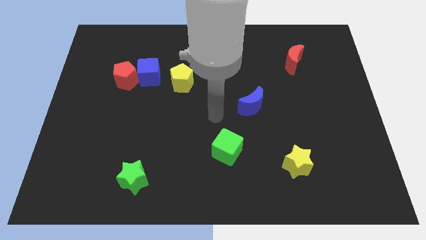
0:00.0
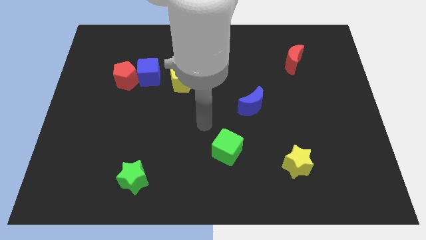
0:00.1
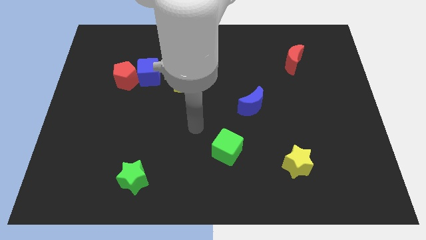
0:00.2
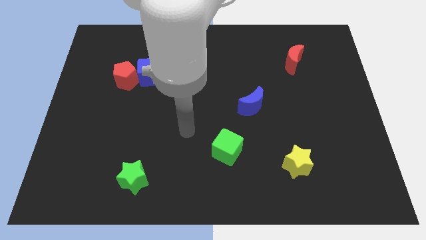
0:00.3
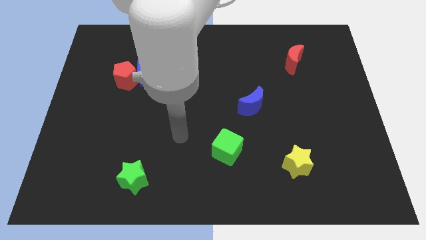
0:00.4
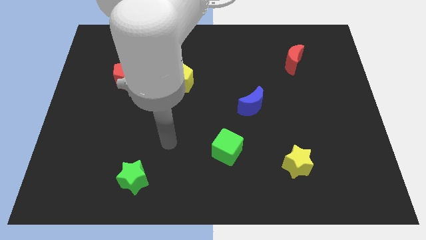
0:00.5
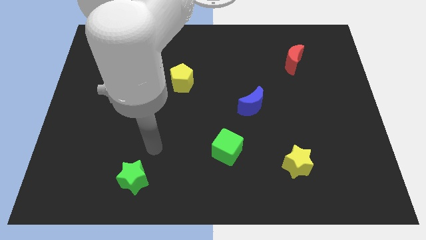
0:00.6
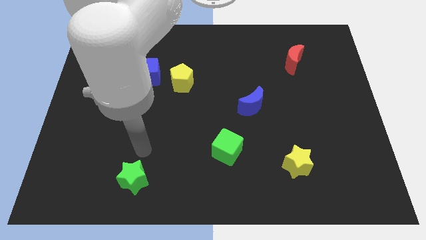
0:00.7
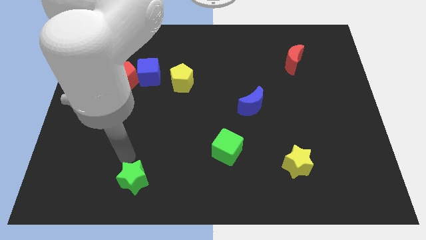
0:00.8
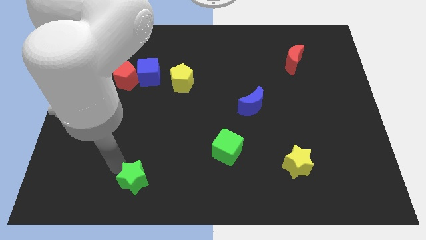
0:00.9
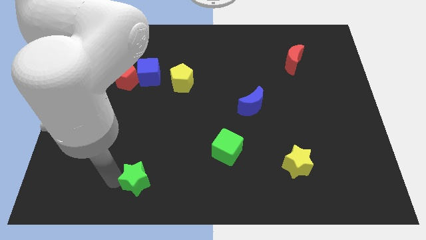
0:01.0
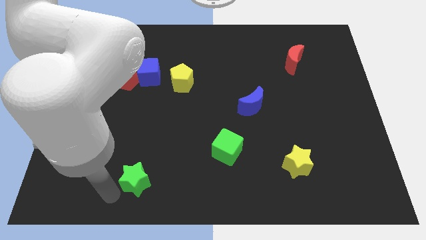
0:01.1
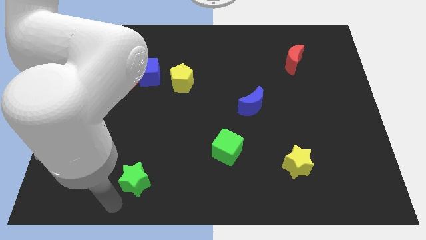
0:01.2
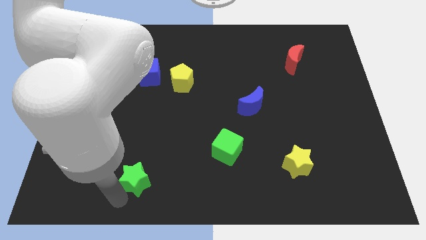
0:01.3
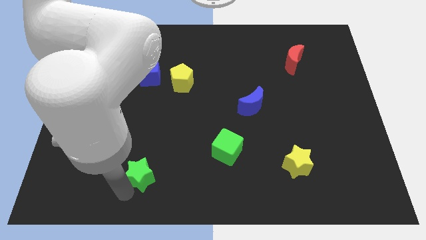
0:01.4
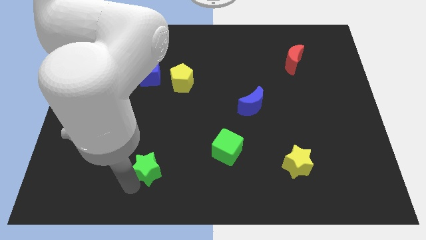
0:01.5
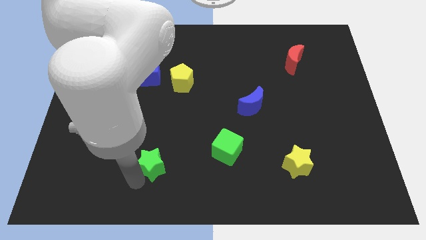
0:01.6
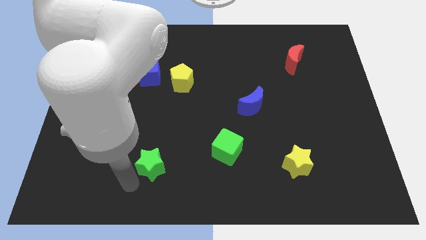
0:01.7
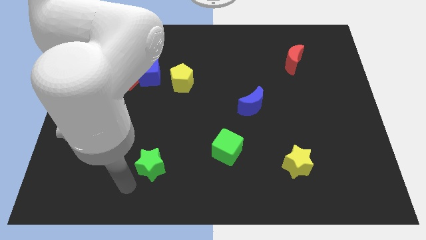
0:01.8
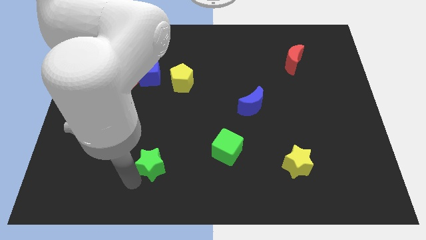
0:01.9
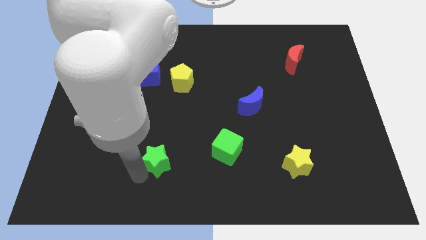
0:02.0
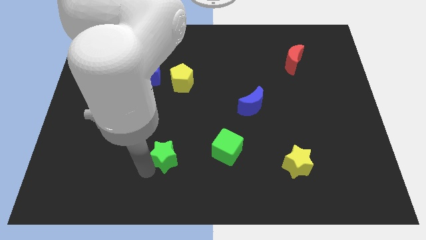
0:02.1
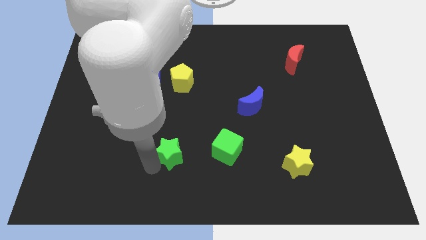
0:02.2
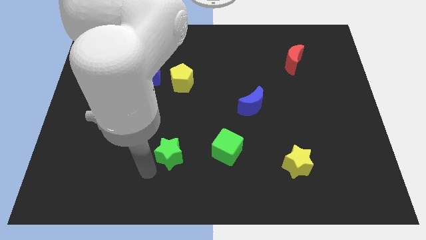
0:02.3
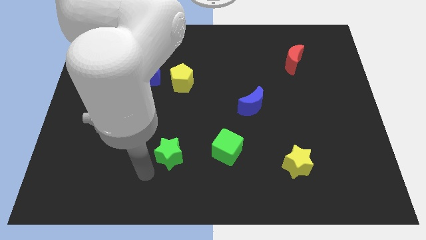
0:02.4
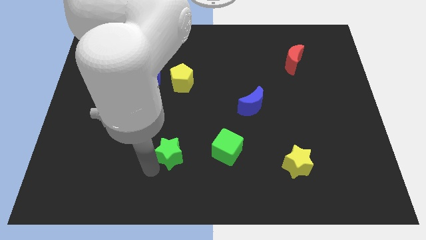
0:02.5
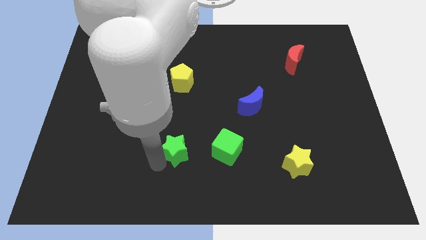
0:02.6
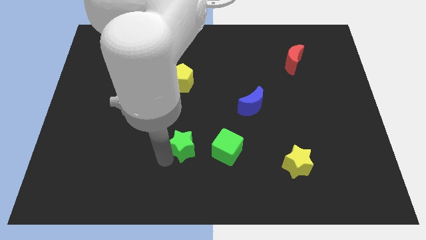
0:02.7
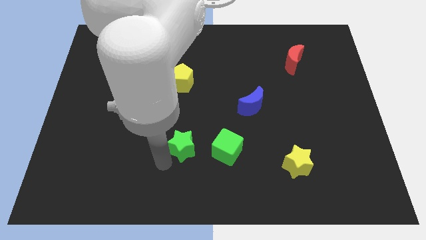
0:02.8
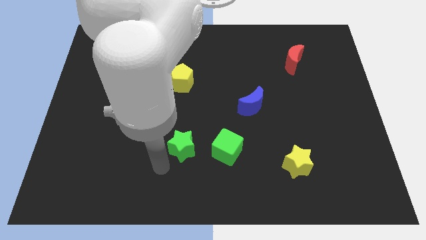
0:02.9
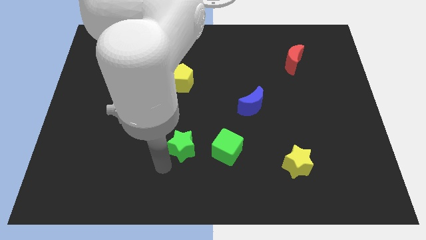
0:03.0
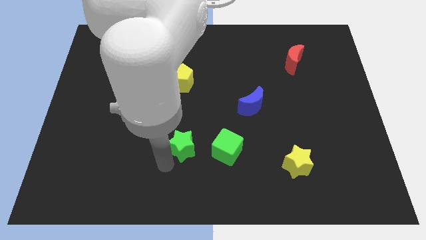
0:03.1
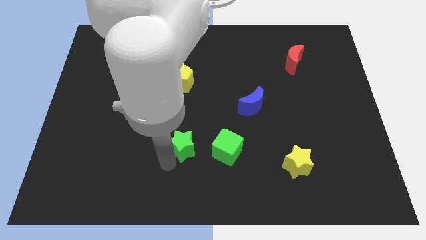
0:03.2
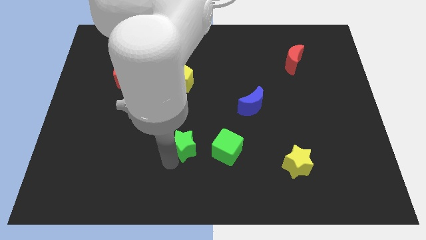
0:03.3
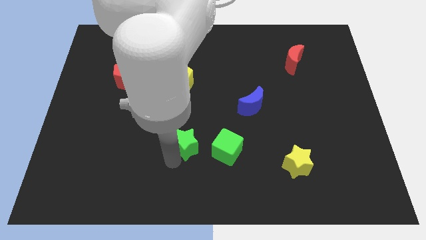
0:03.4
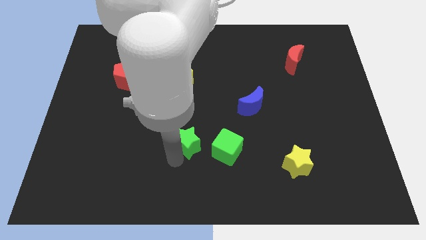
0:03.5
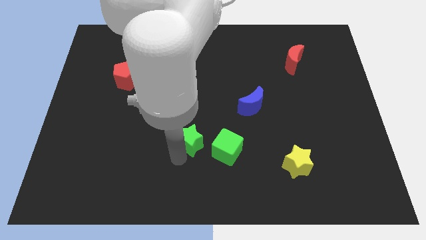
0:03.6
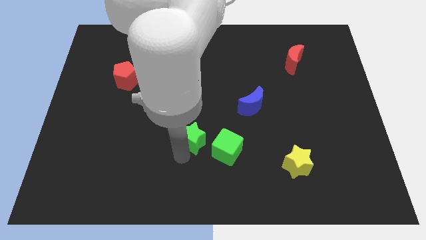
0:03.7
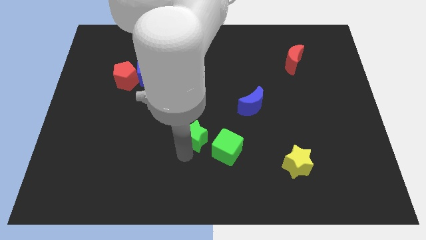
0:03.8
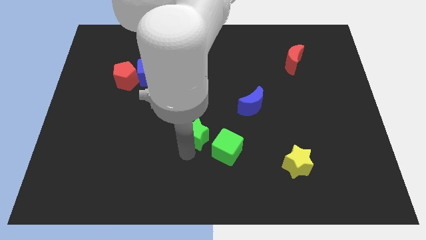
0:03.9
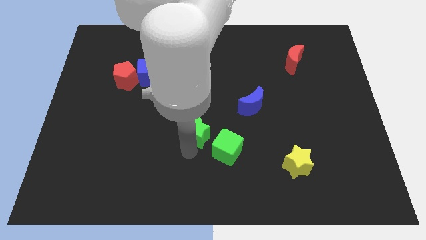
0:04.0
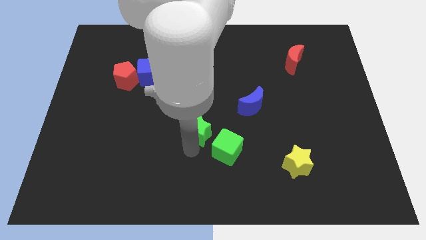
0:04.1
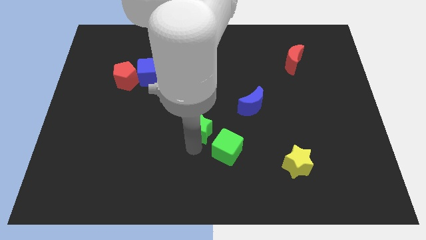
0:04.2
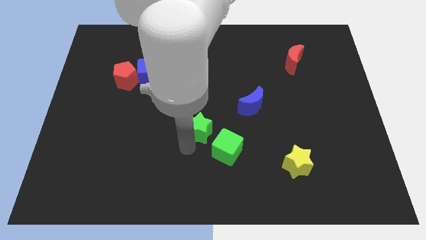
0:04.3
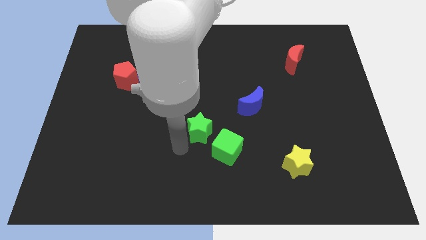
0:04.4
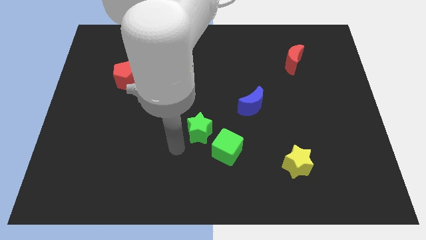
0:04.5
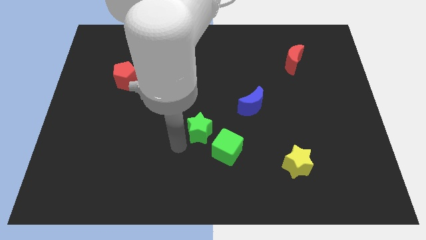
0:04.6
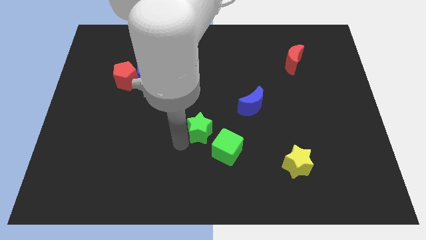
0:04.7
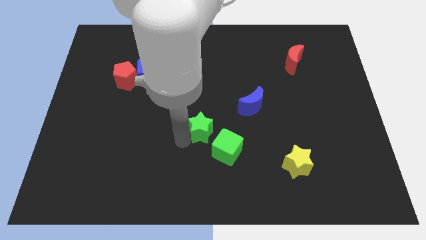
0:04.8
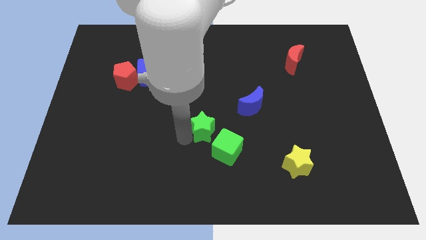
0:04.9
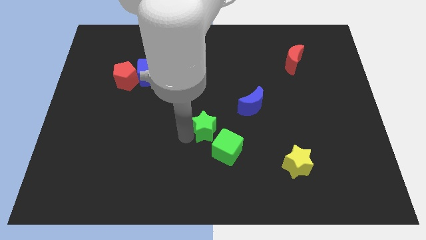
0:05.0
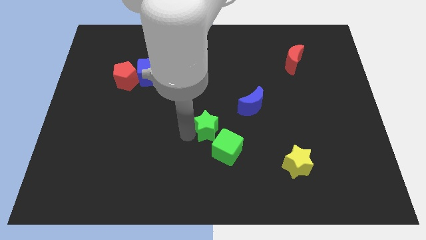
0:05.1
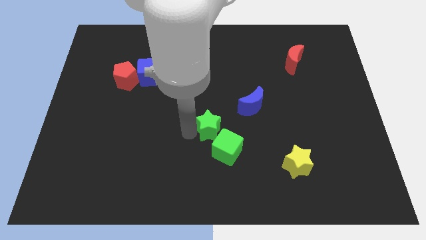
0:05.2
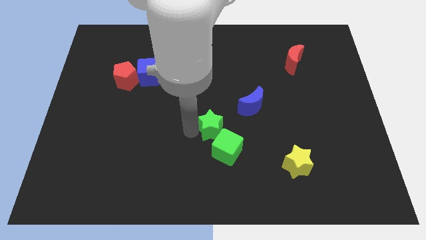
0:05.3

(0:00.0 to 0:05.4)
push the green star upwards and right

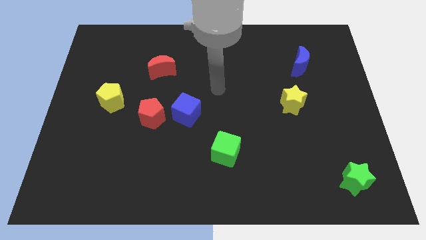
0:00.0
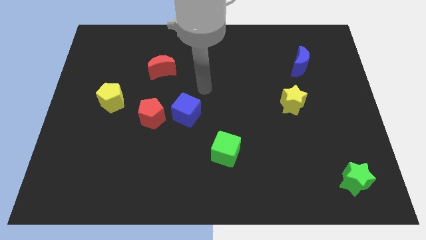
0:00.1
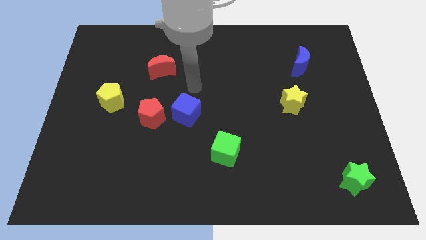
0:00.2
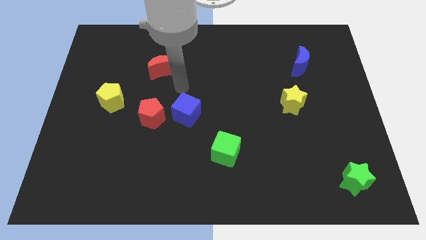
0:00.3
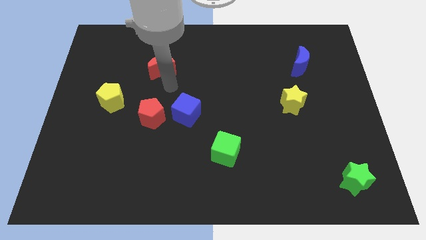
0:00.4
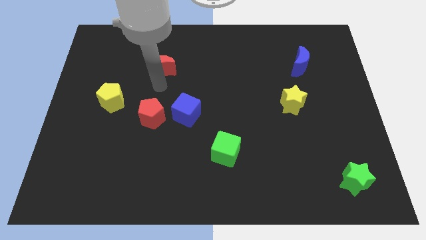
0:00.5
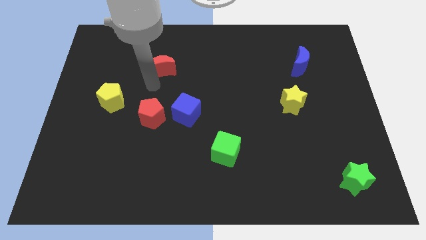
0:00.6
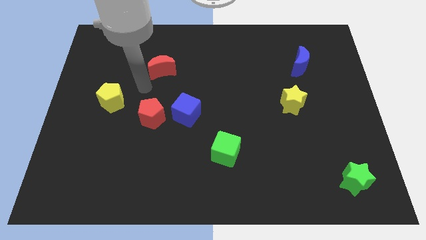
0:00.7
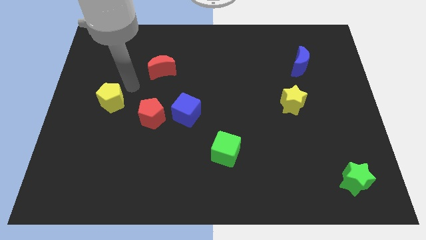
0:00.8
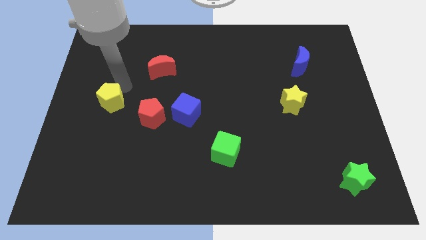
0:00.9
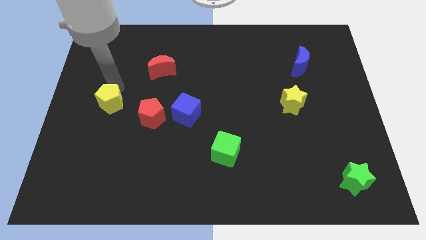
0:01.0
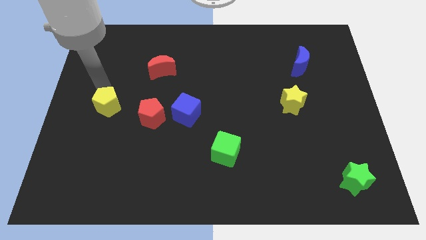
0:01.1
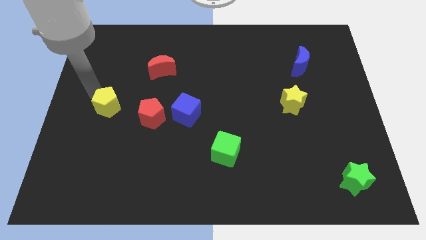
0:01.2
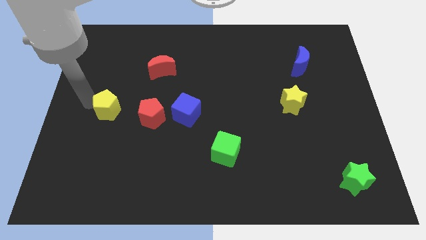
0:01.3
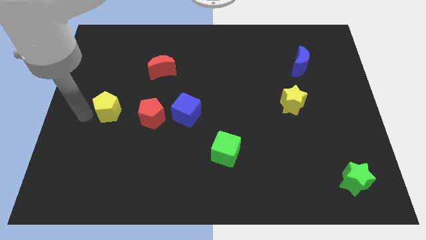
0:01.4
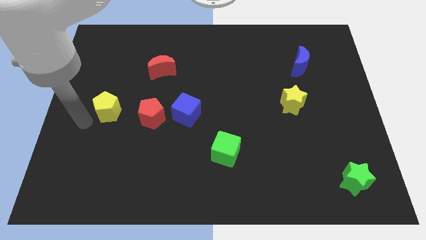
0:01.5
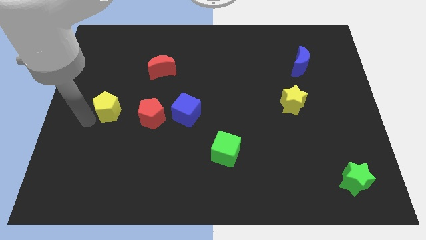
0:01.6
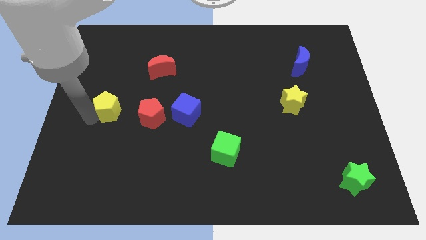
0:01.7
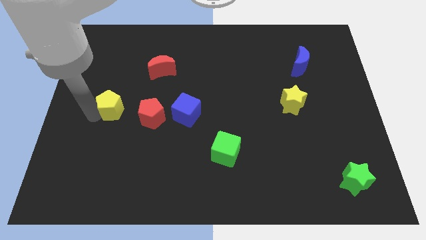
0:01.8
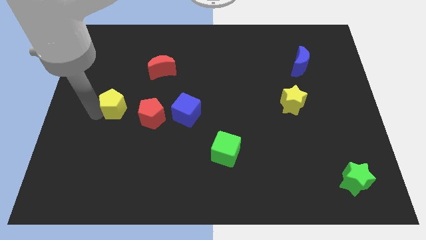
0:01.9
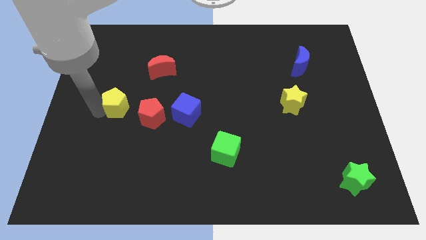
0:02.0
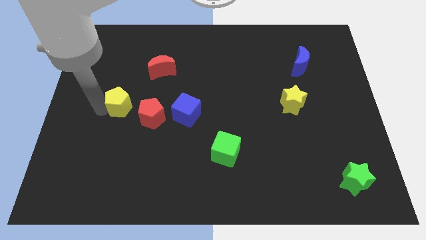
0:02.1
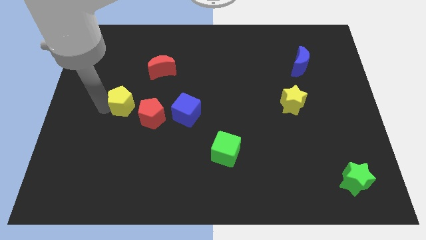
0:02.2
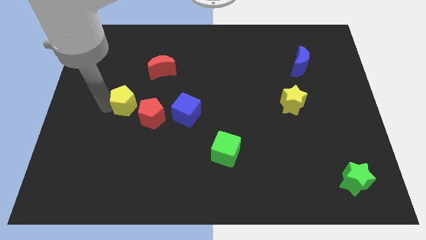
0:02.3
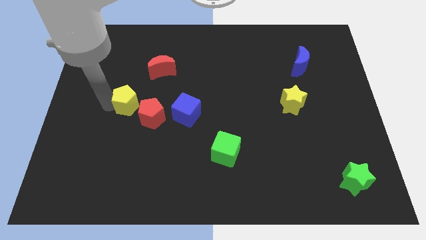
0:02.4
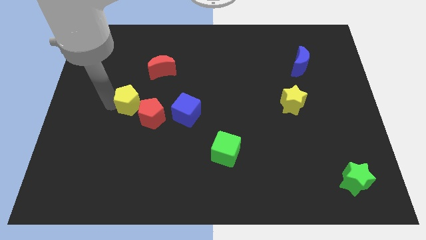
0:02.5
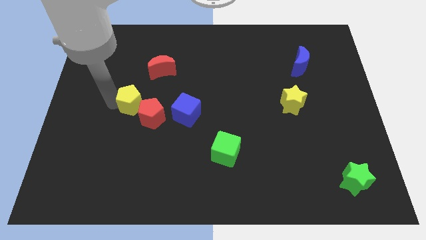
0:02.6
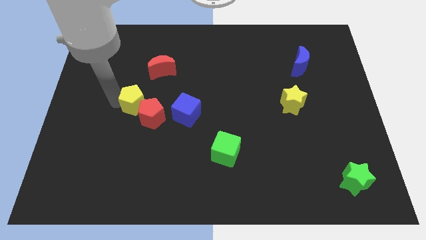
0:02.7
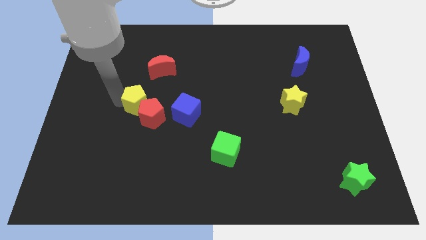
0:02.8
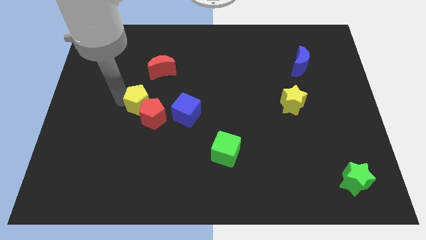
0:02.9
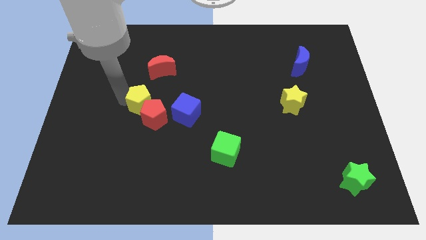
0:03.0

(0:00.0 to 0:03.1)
push the yellow pentagon to the right a little
